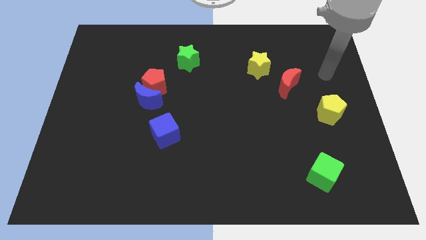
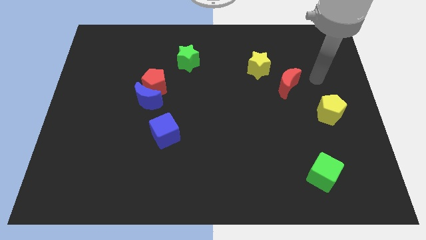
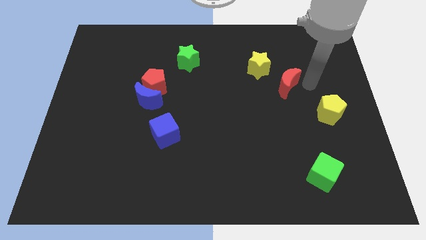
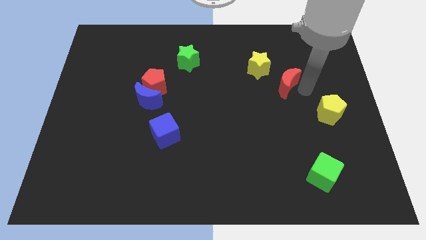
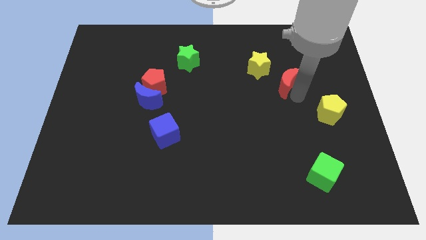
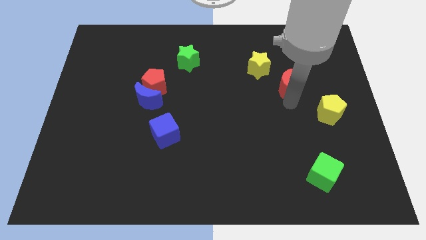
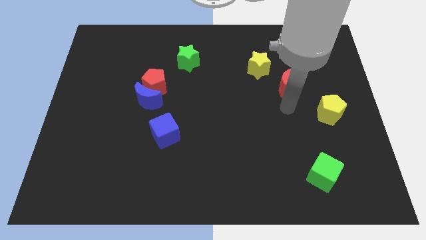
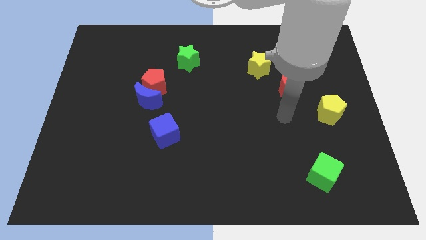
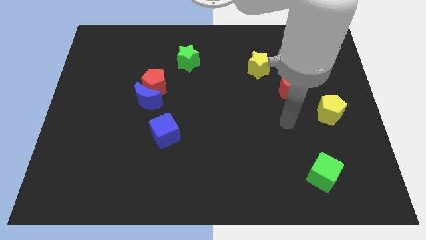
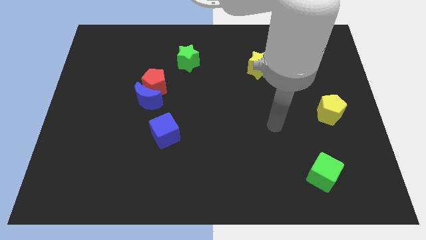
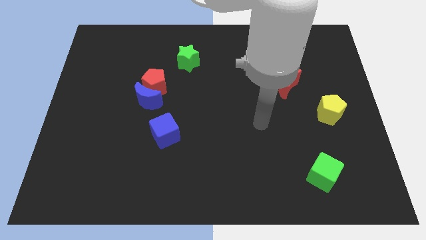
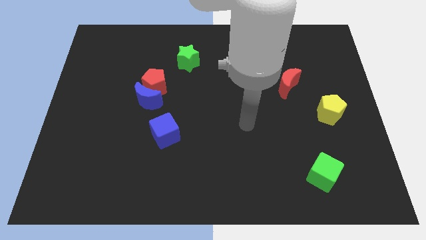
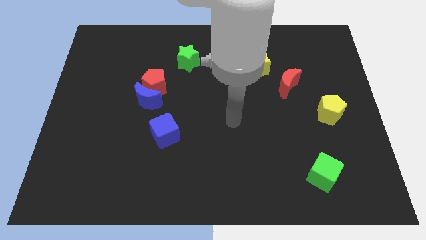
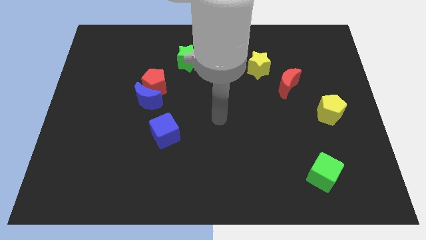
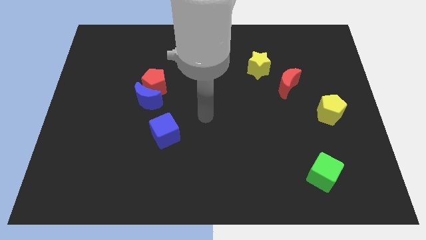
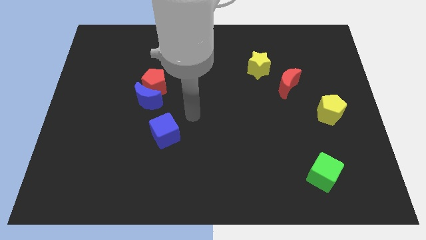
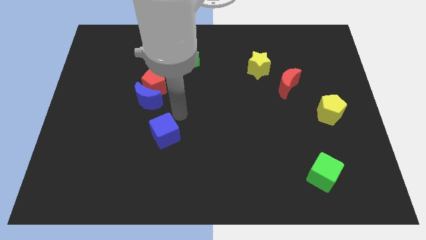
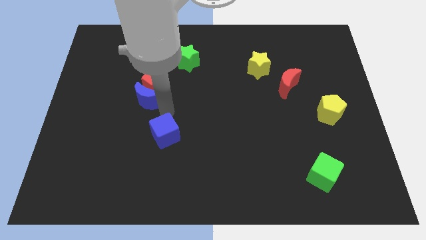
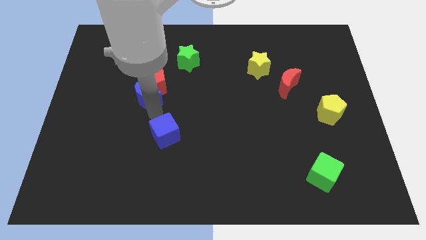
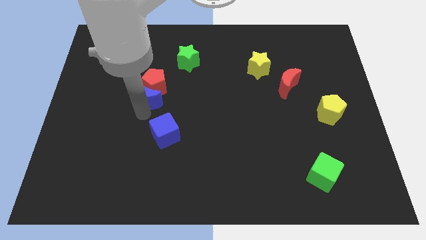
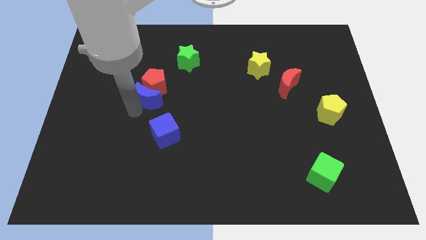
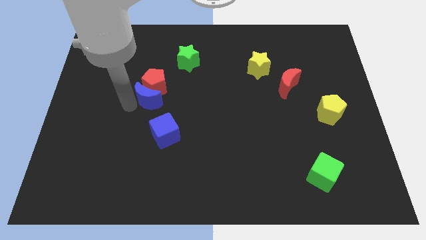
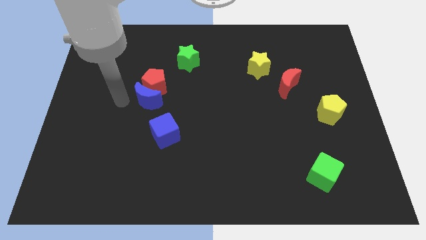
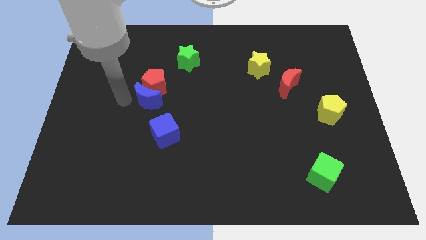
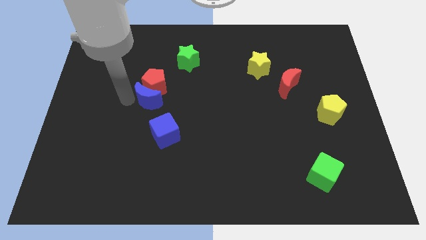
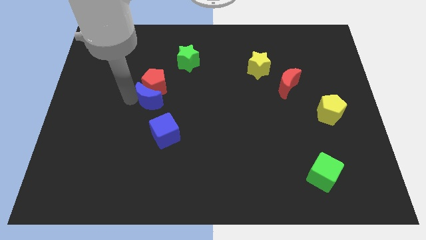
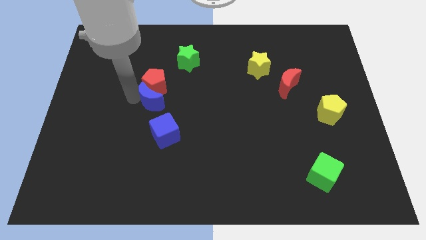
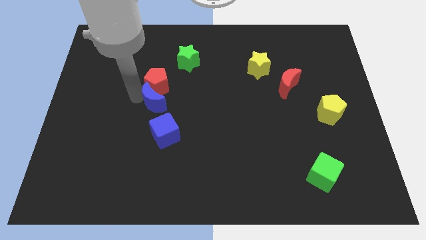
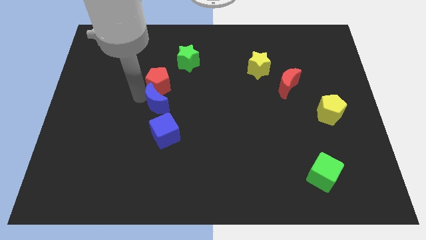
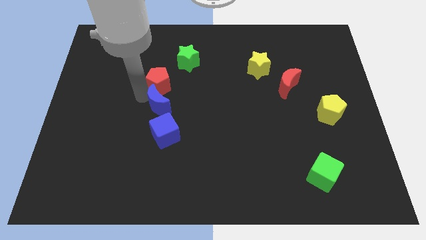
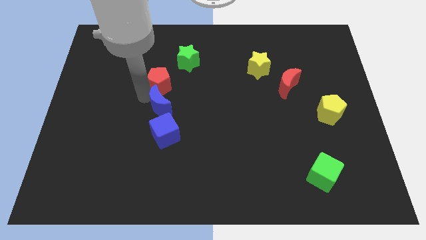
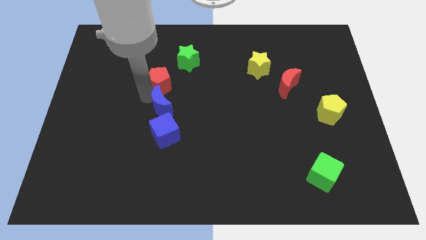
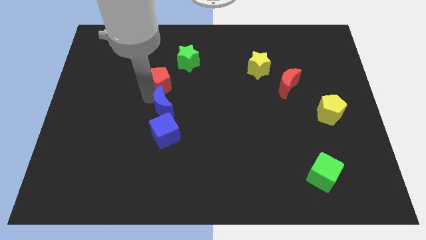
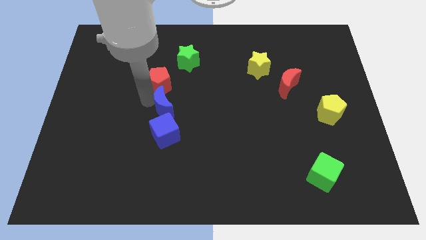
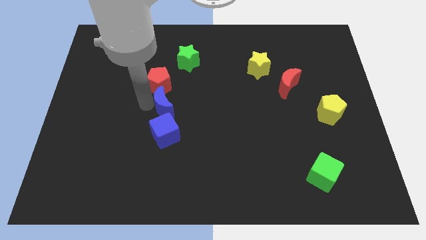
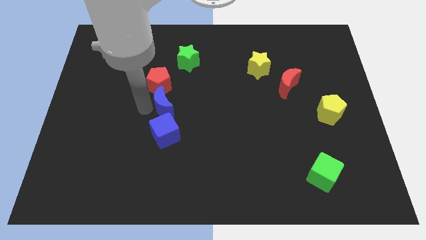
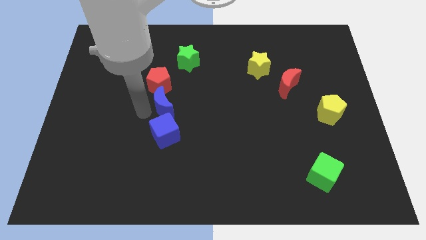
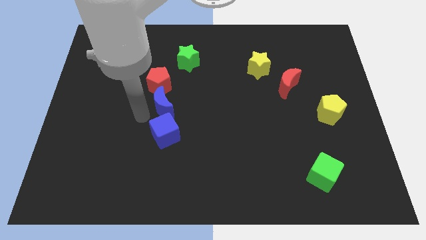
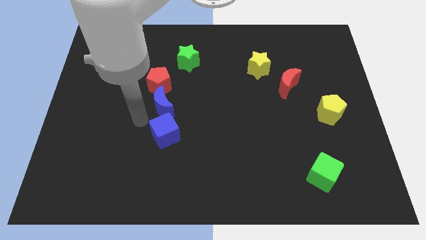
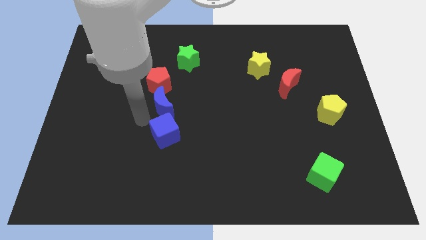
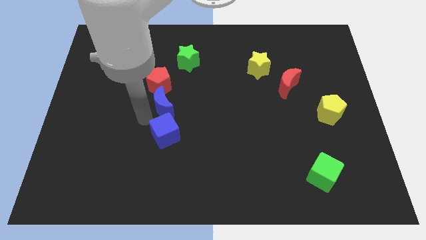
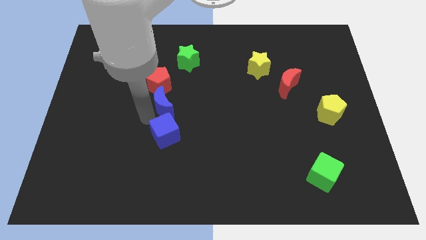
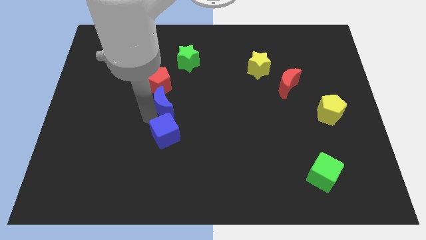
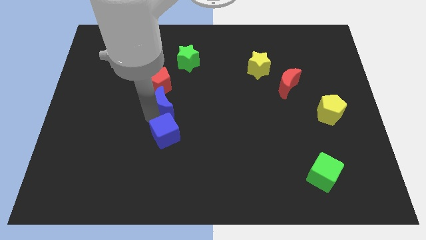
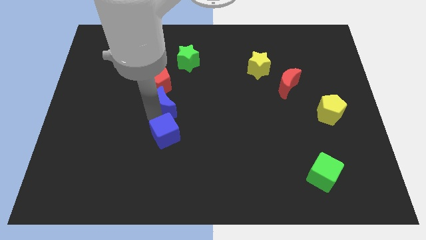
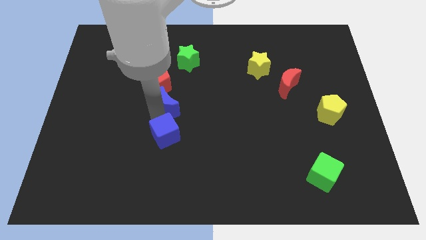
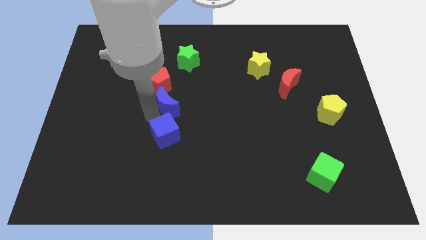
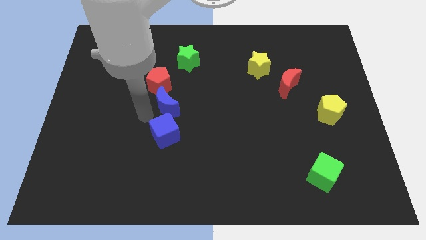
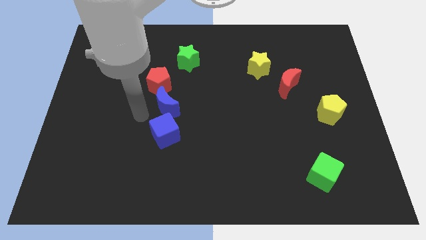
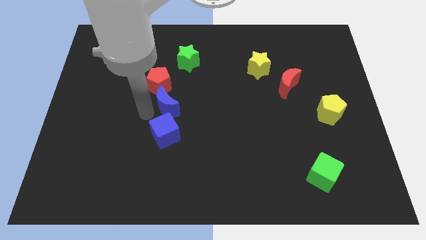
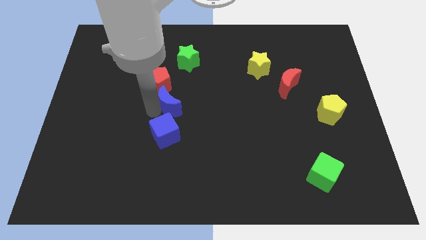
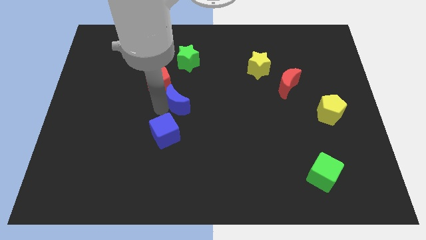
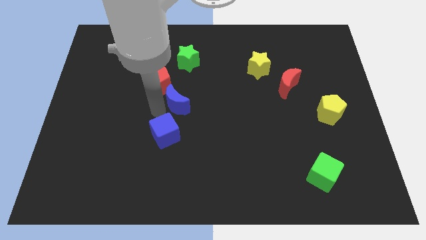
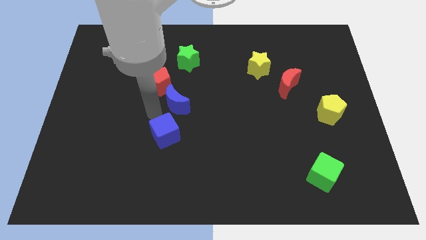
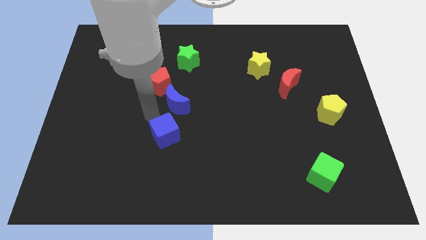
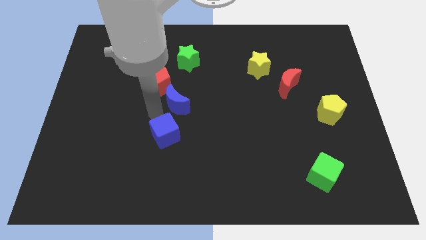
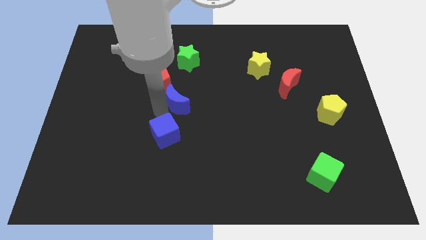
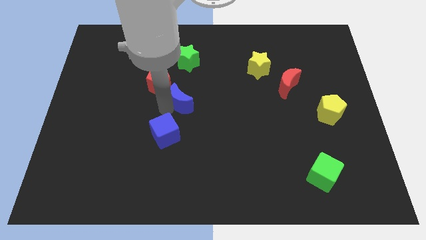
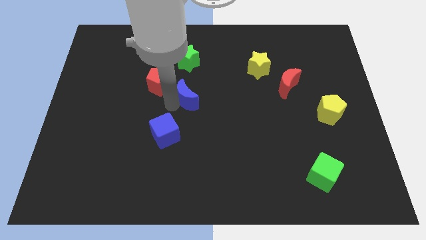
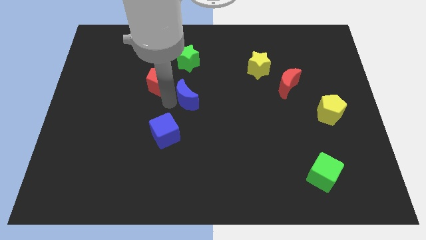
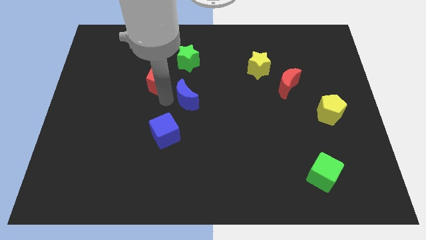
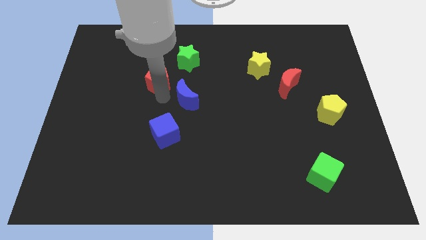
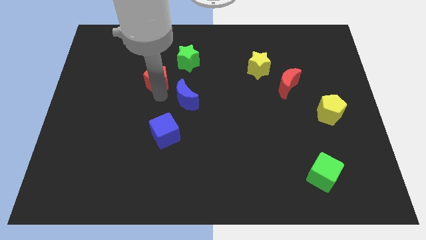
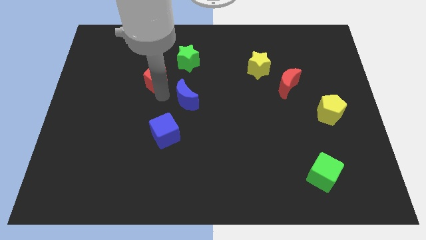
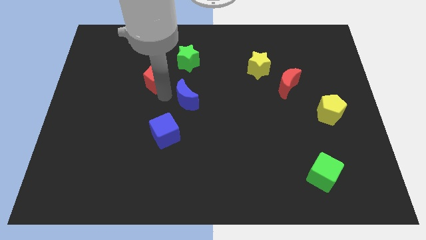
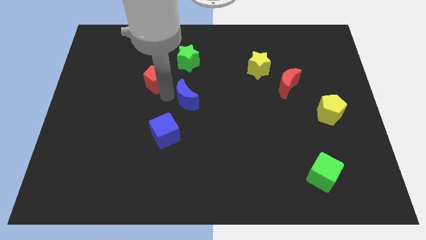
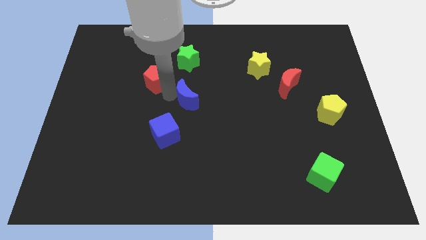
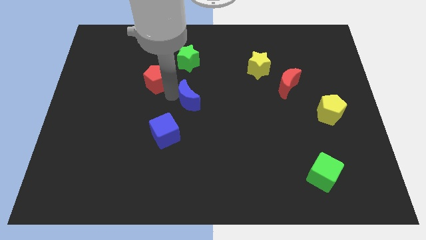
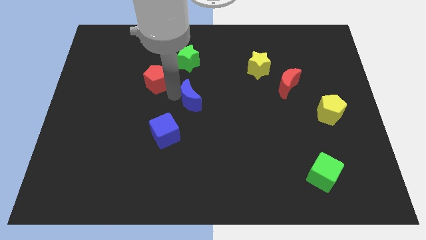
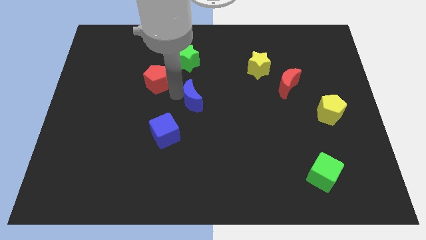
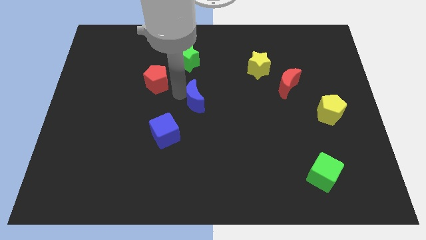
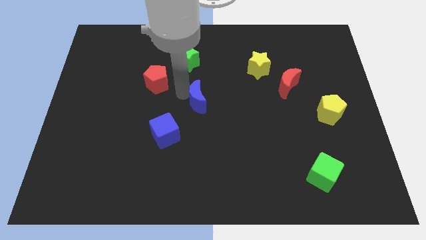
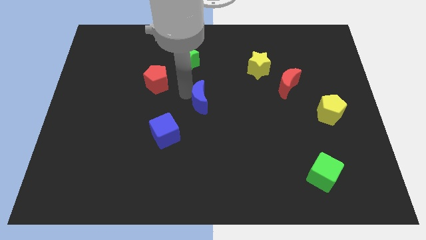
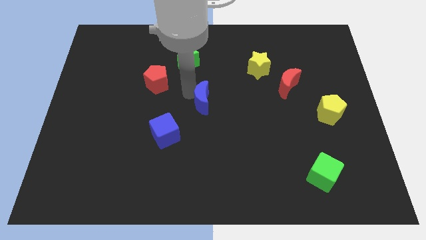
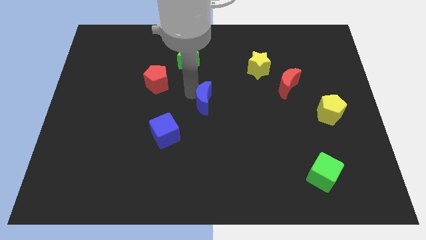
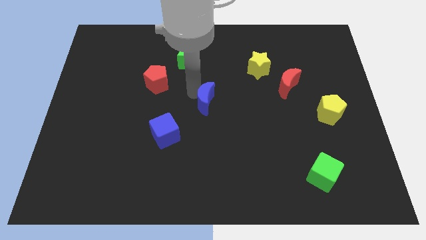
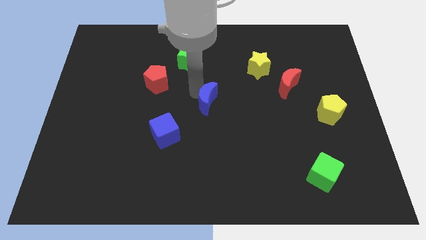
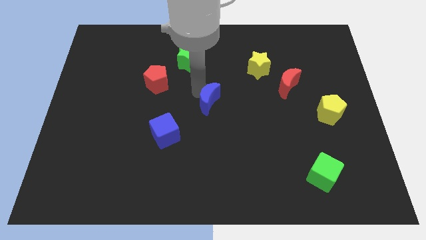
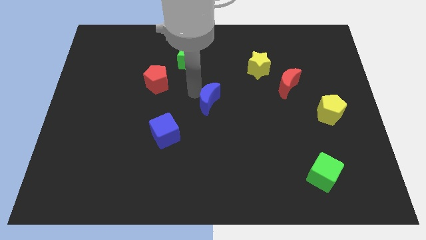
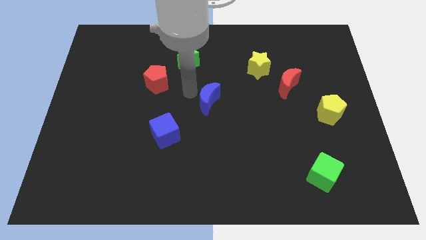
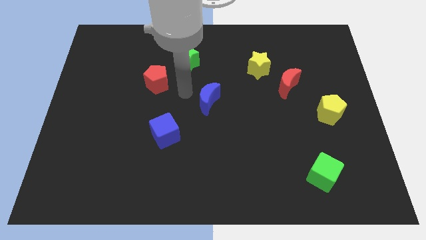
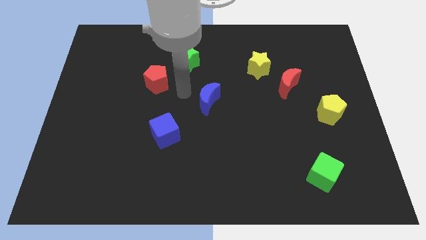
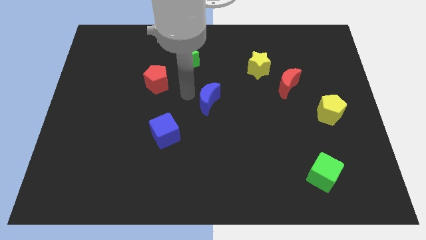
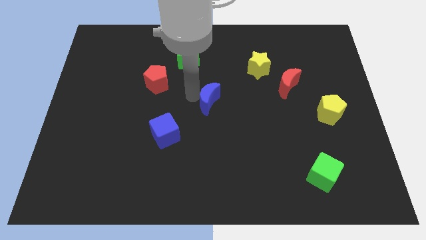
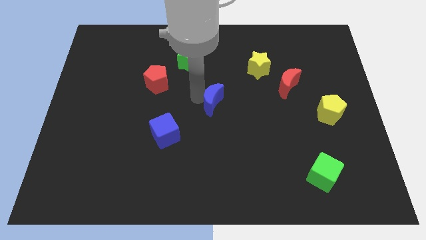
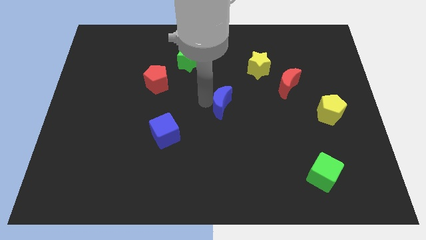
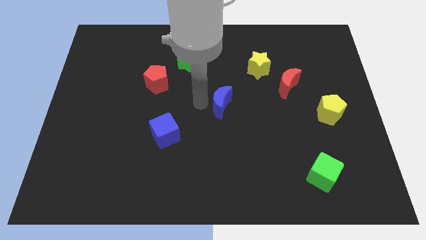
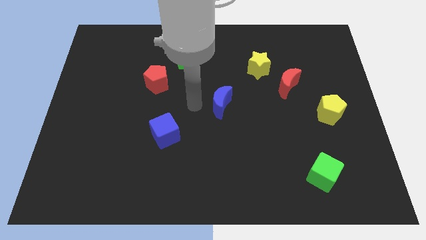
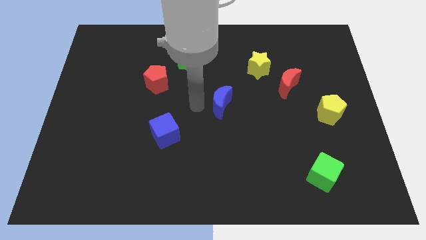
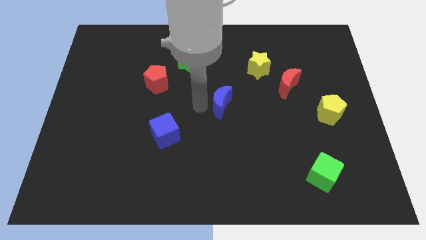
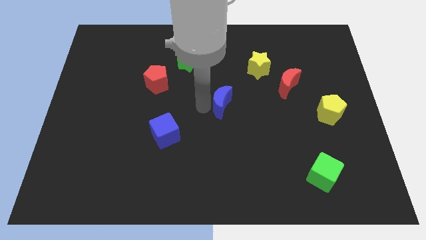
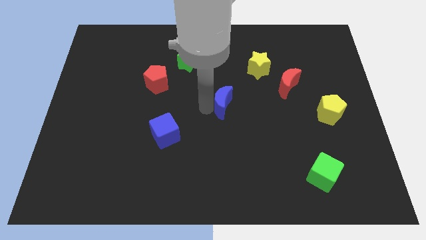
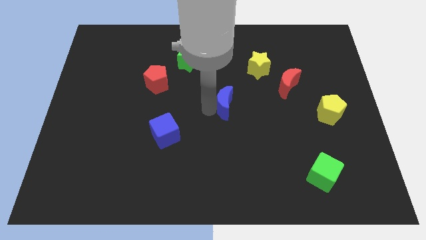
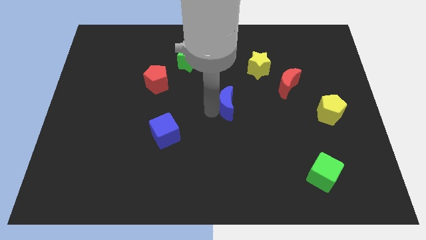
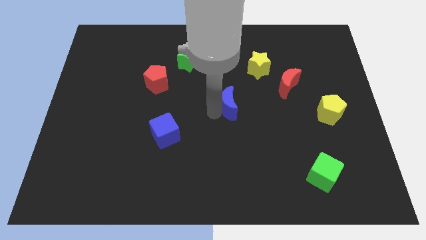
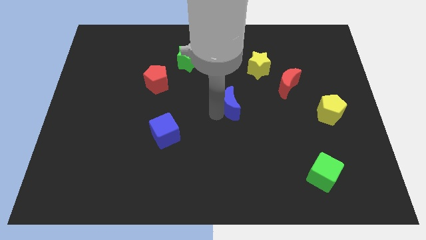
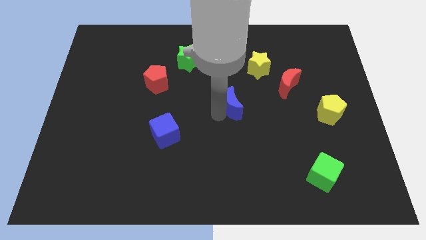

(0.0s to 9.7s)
move the blue moon to the right
